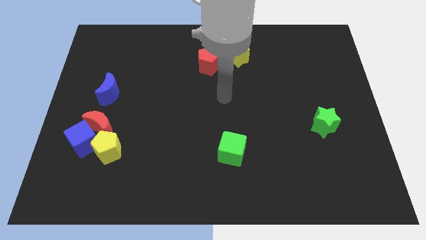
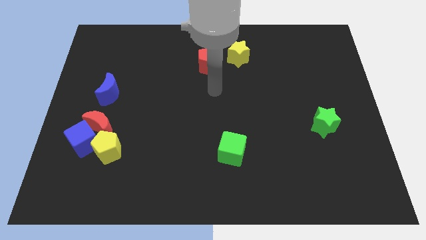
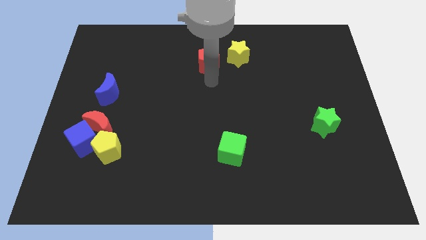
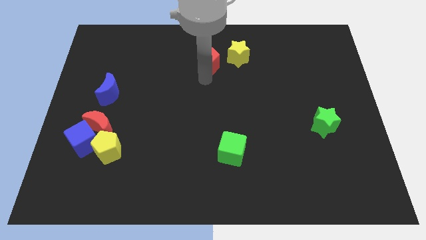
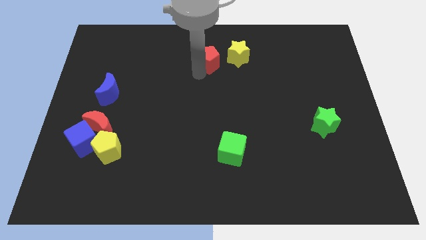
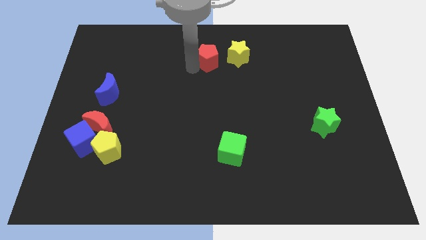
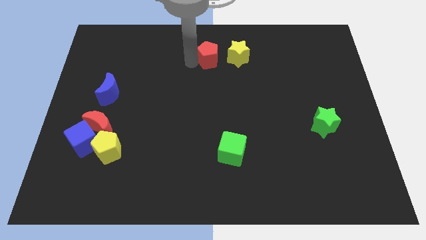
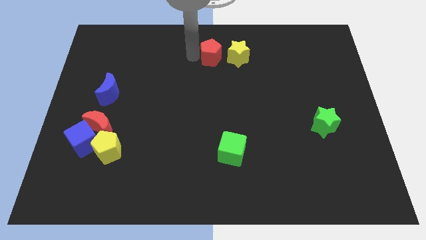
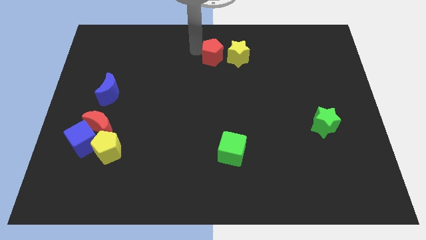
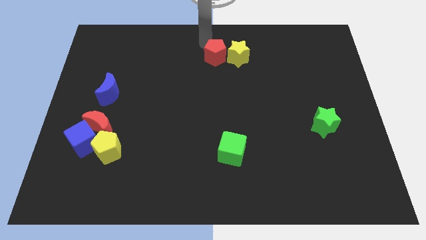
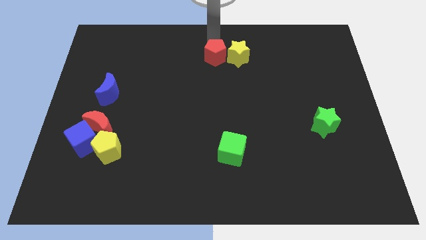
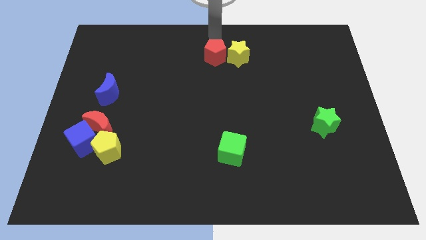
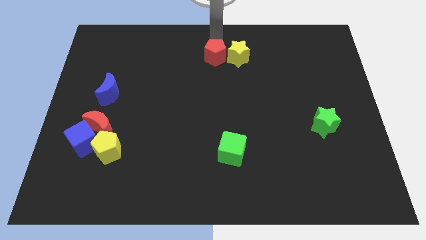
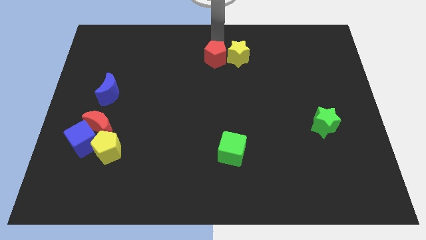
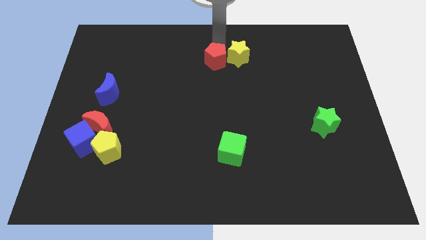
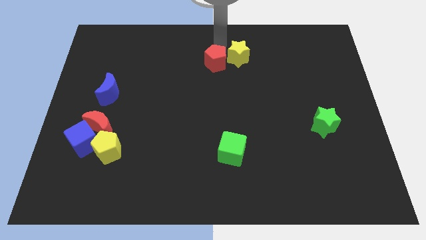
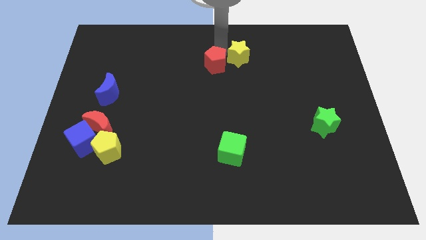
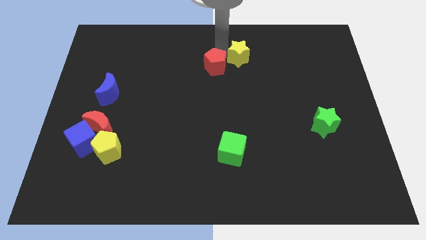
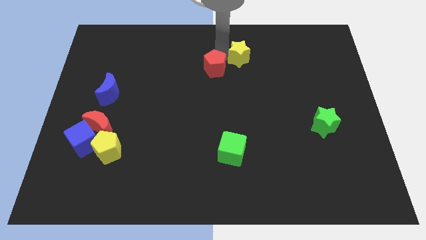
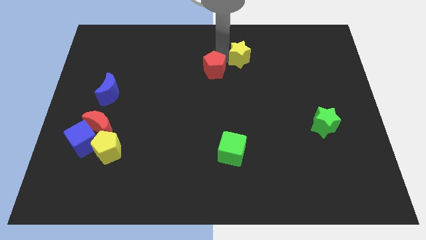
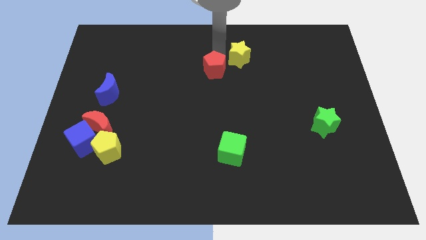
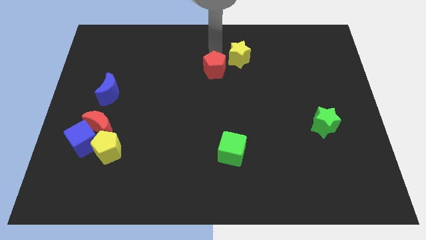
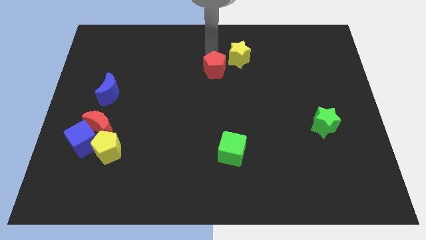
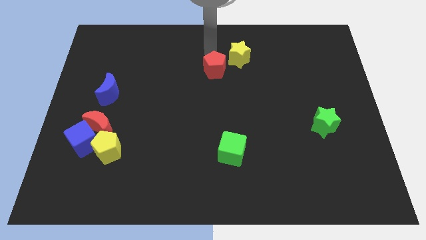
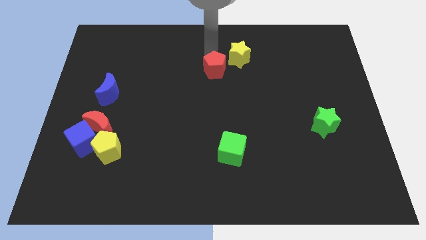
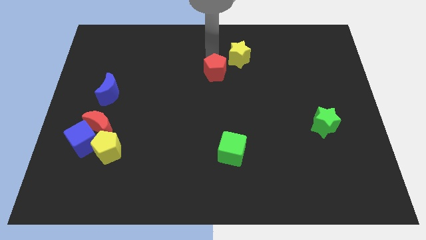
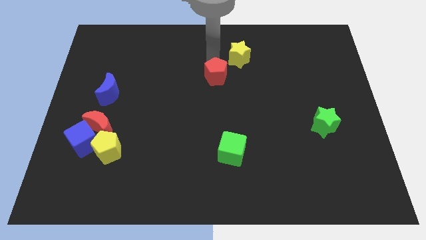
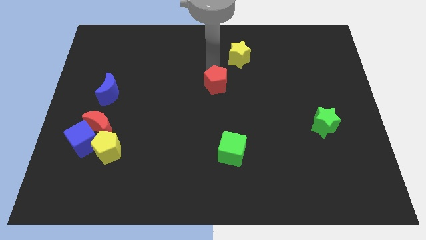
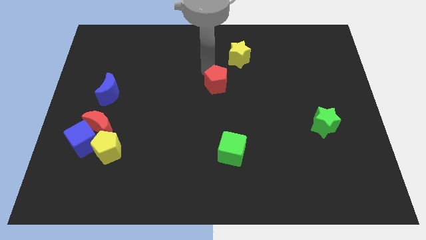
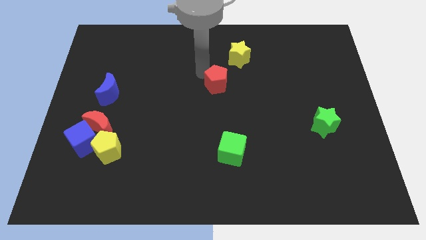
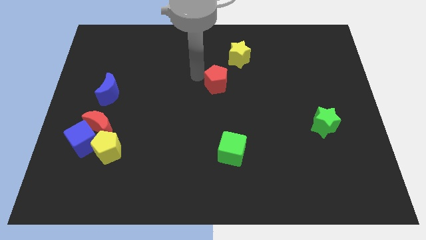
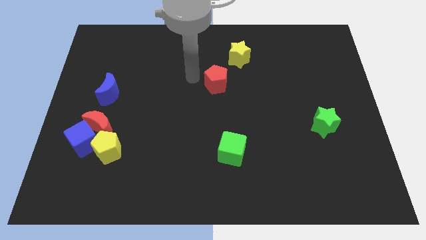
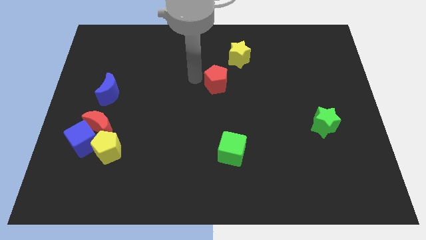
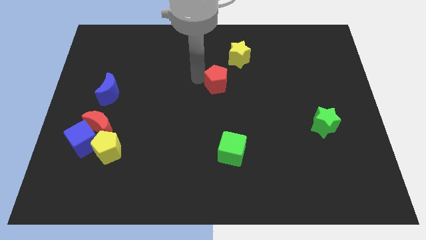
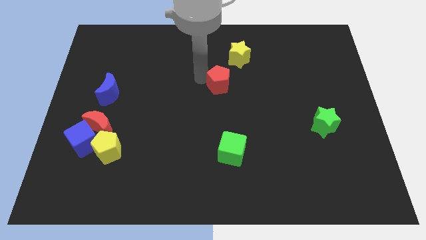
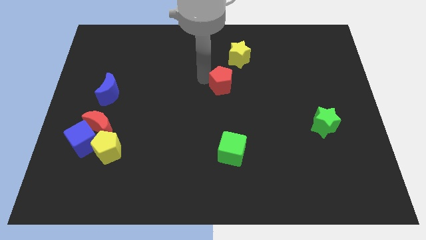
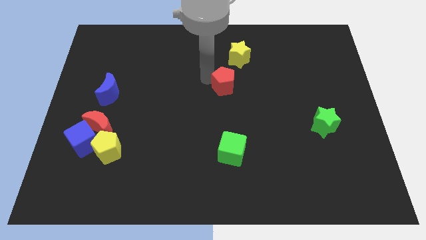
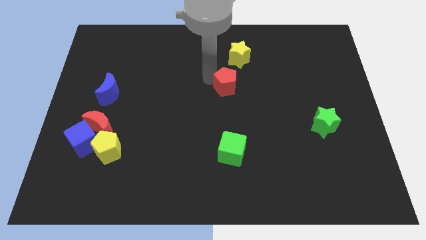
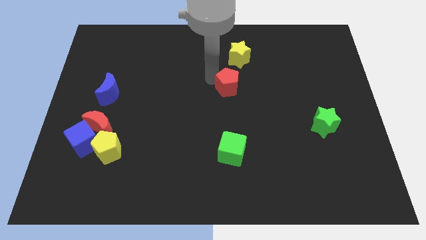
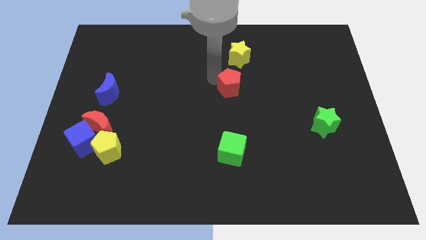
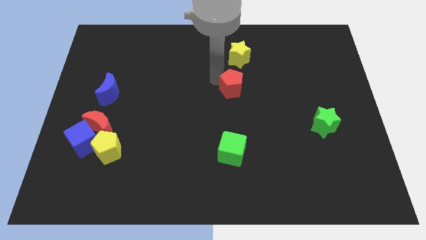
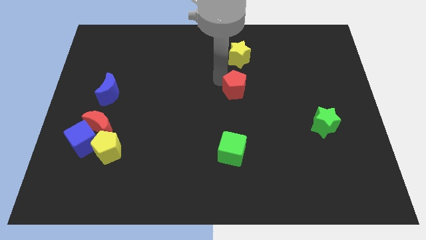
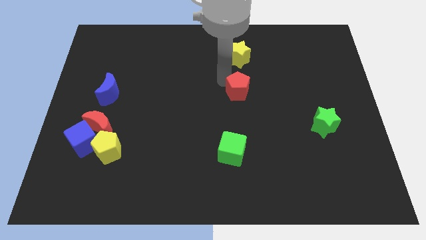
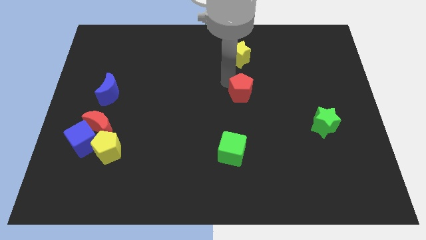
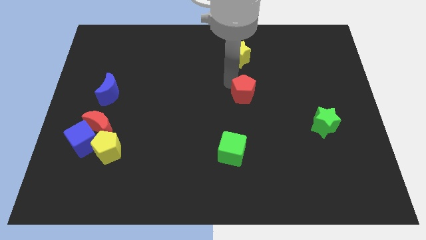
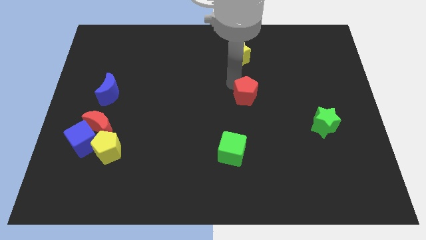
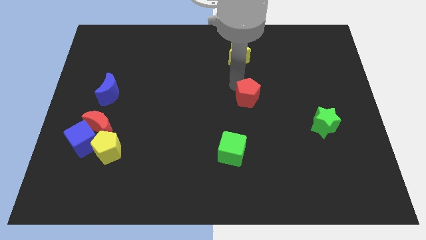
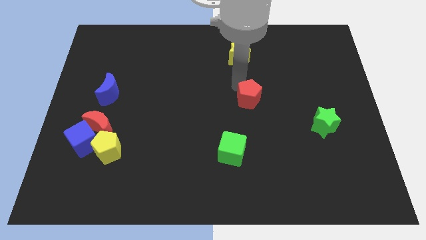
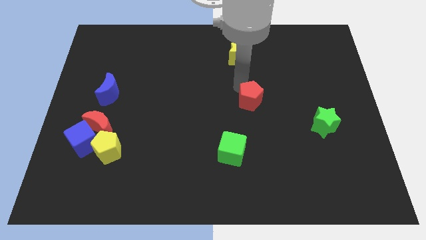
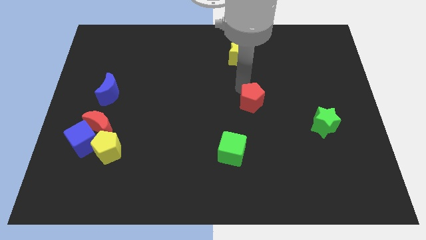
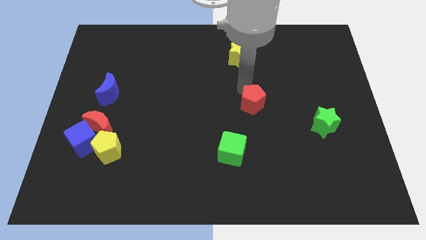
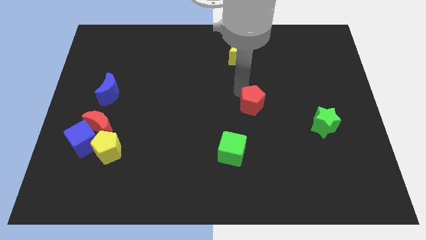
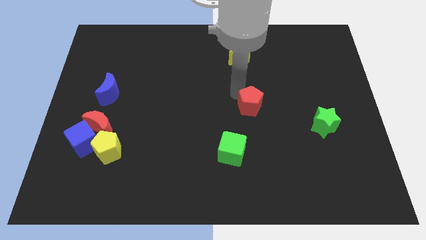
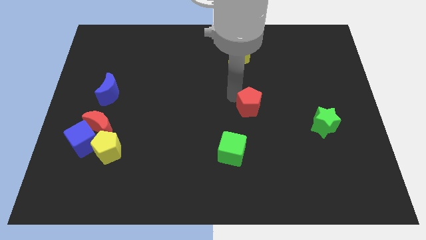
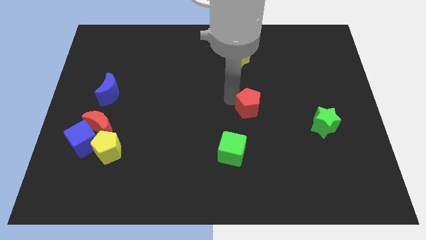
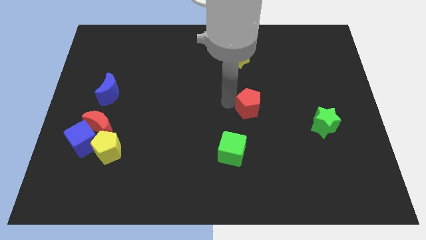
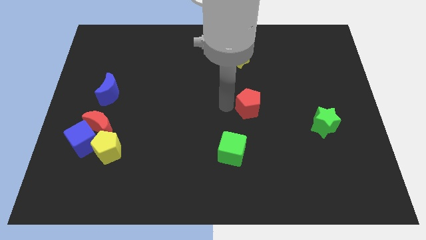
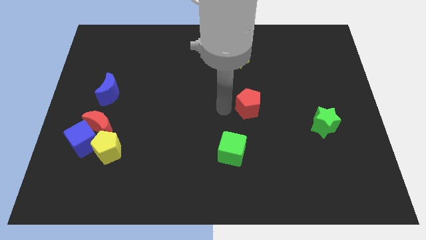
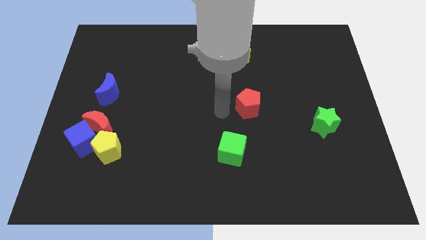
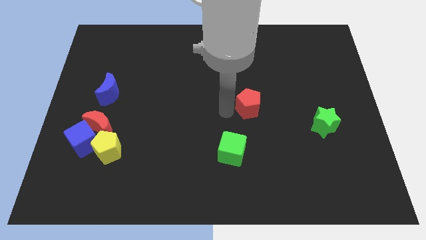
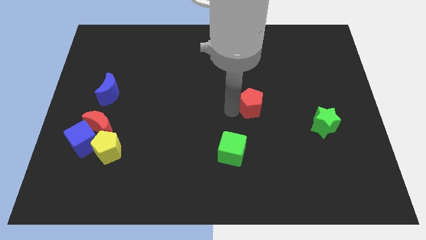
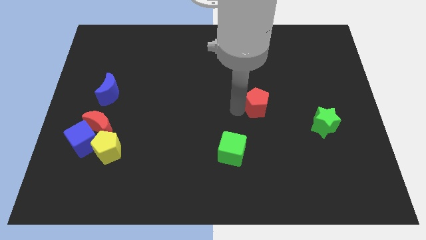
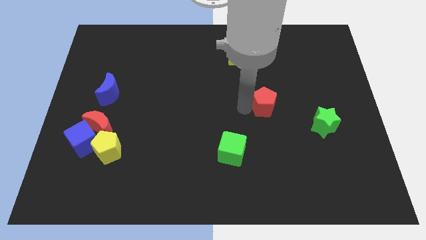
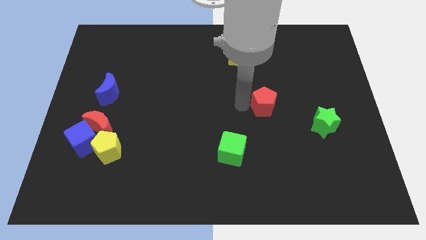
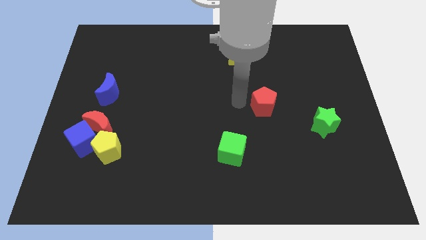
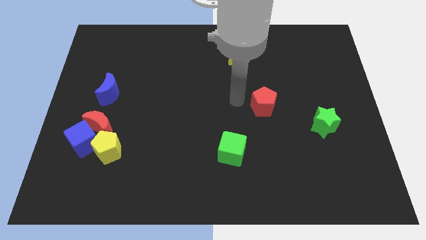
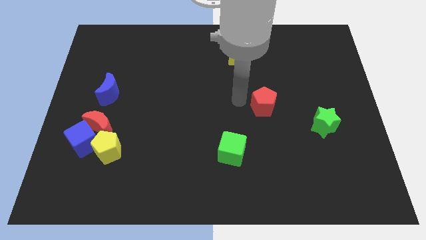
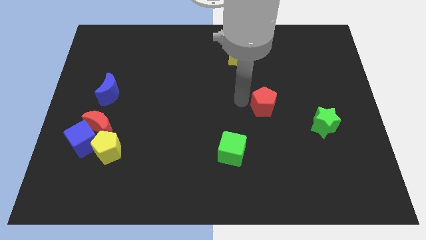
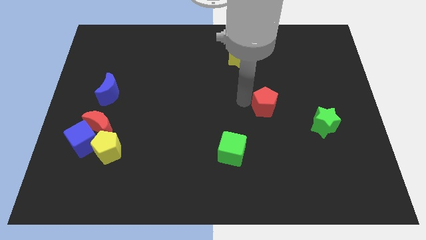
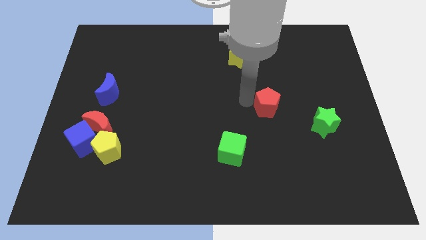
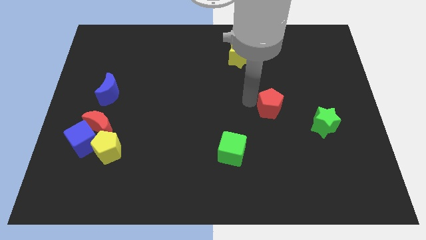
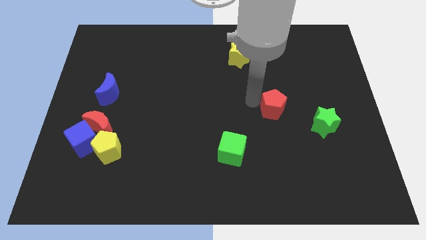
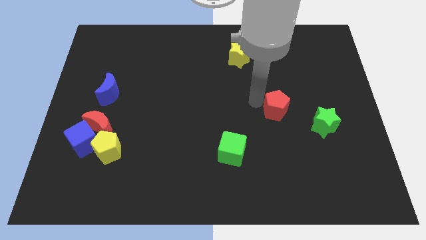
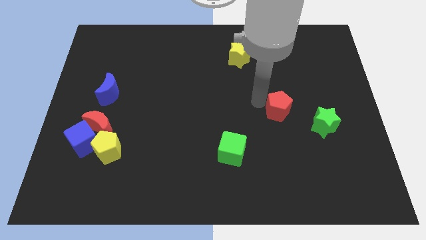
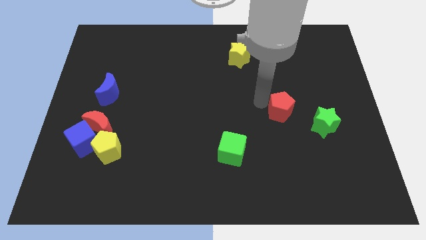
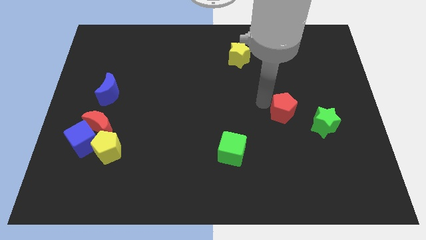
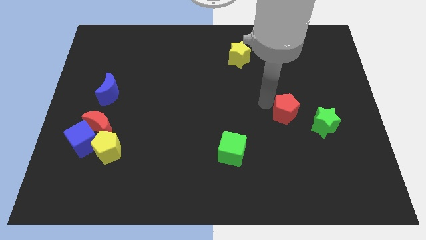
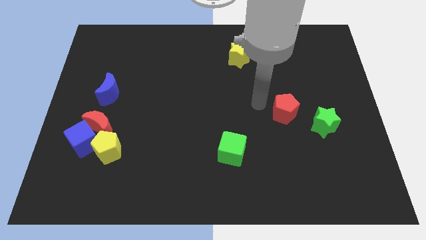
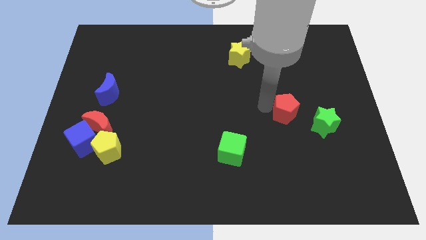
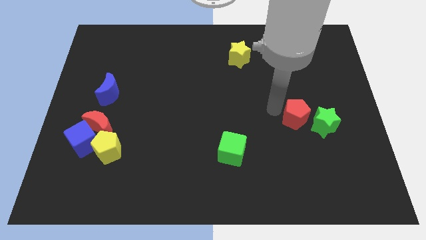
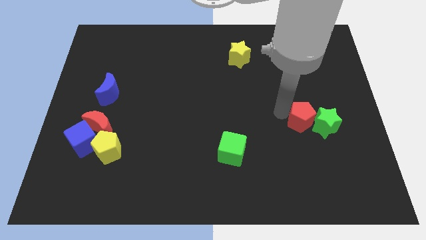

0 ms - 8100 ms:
move the red pentagon towards the green star
